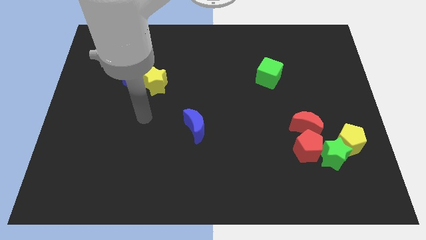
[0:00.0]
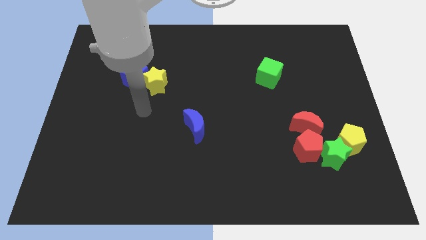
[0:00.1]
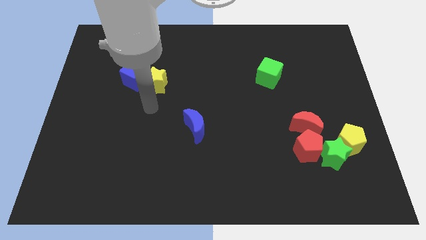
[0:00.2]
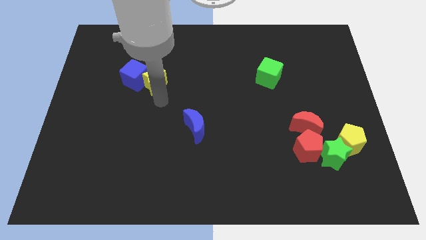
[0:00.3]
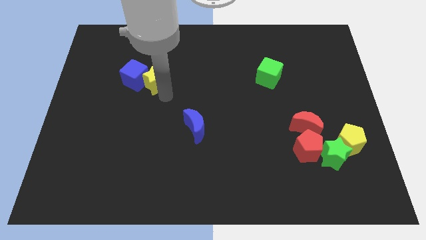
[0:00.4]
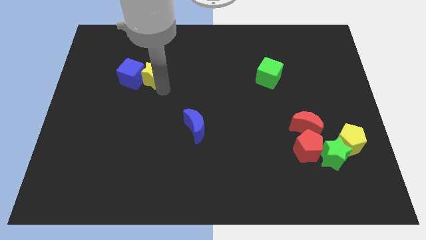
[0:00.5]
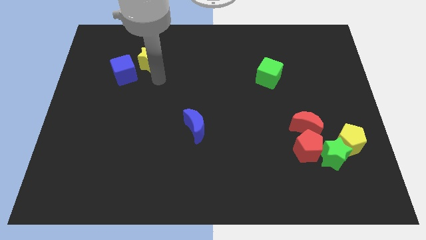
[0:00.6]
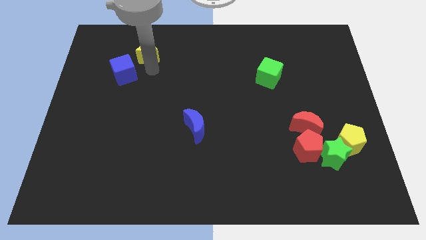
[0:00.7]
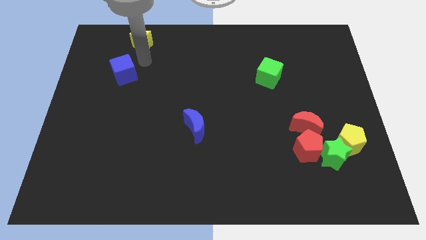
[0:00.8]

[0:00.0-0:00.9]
separate the blue cube from the yellow star

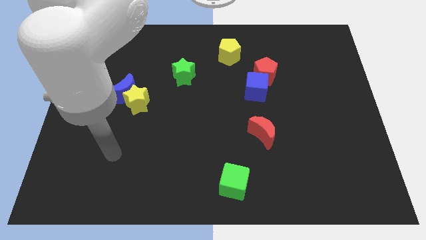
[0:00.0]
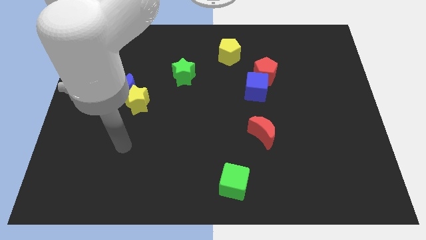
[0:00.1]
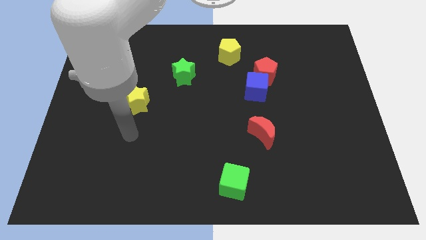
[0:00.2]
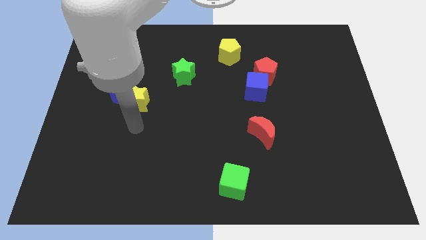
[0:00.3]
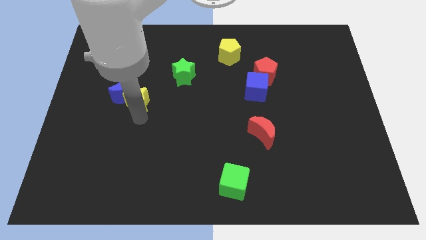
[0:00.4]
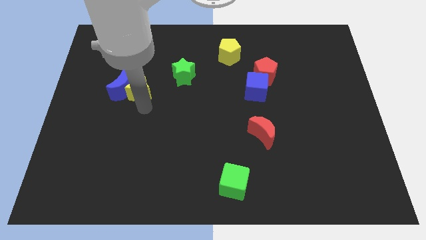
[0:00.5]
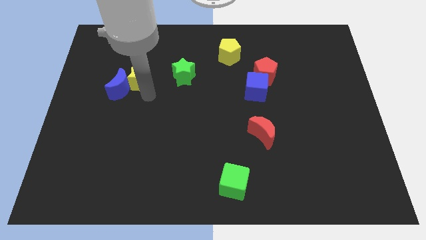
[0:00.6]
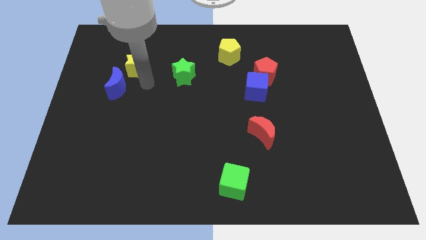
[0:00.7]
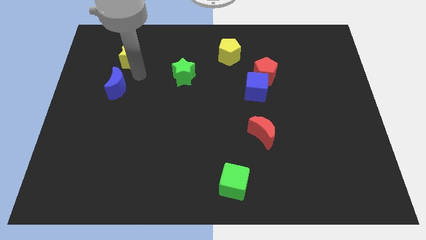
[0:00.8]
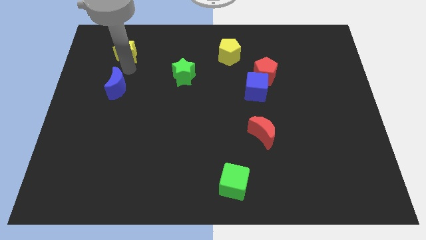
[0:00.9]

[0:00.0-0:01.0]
separate the blue moon from the yellow star

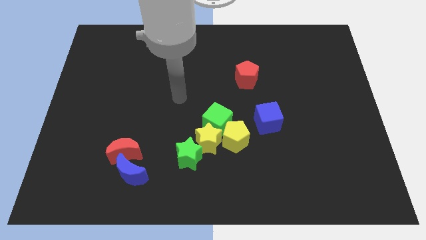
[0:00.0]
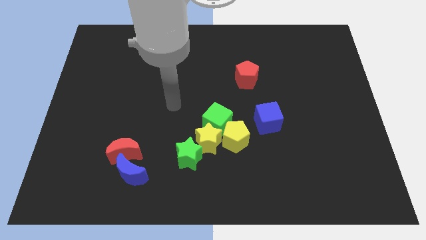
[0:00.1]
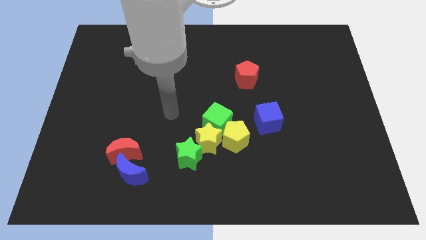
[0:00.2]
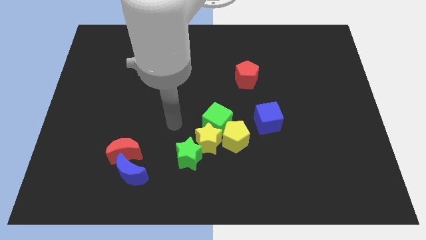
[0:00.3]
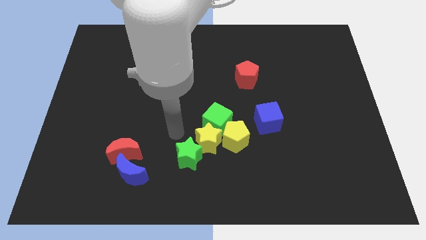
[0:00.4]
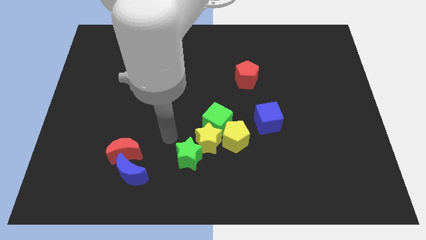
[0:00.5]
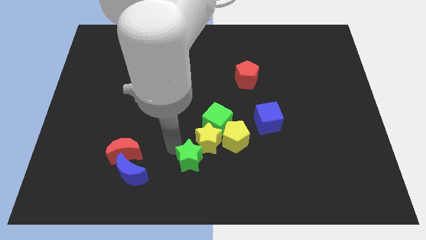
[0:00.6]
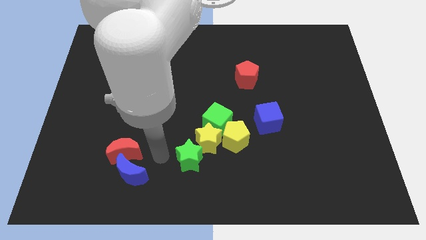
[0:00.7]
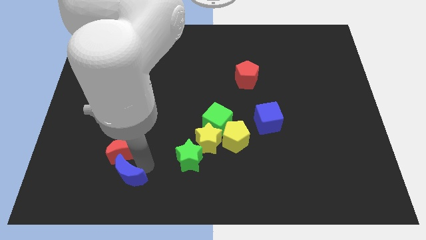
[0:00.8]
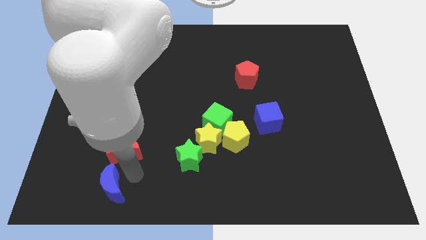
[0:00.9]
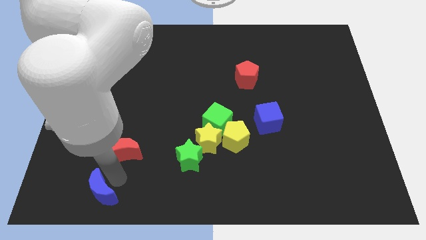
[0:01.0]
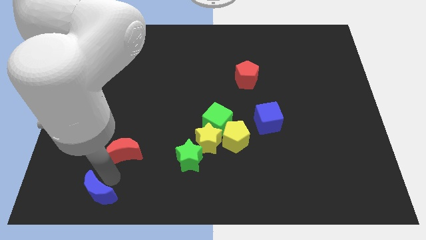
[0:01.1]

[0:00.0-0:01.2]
move the red moon away from the blue moon

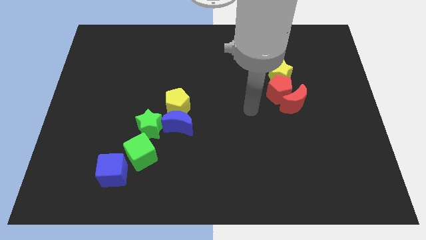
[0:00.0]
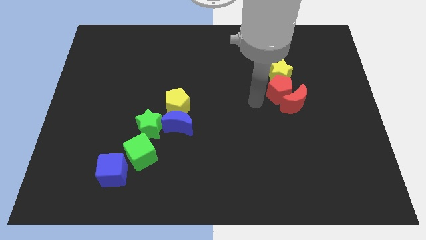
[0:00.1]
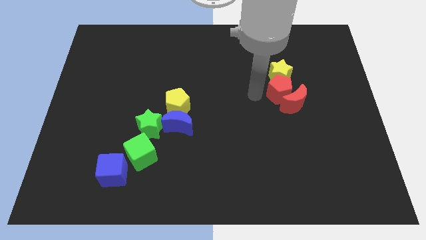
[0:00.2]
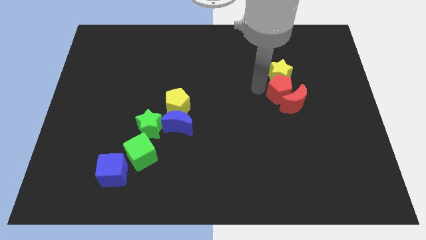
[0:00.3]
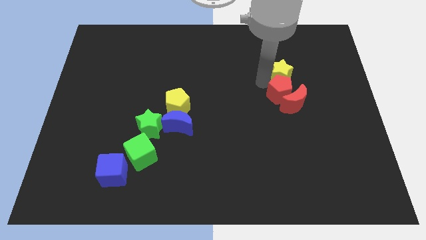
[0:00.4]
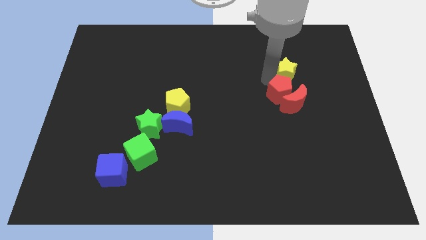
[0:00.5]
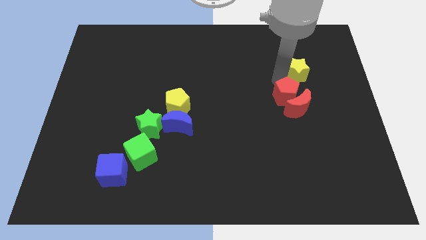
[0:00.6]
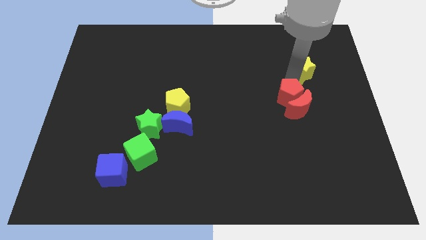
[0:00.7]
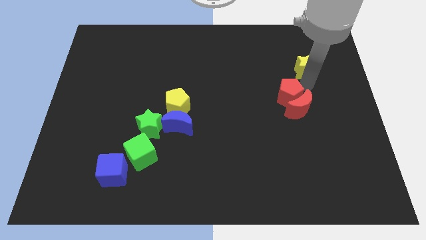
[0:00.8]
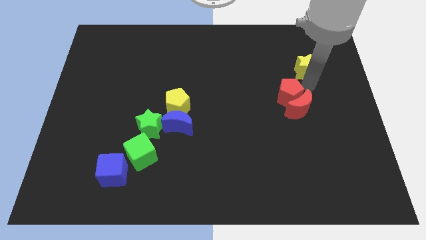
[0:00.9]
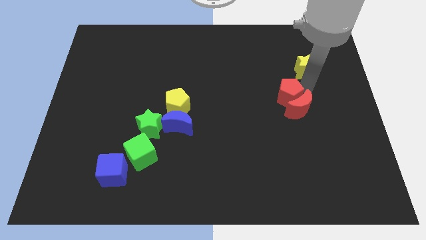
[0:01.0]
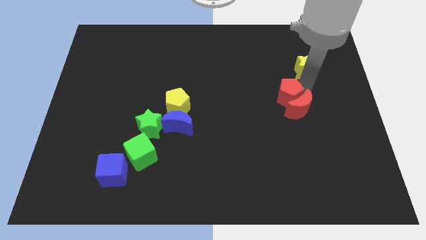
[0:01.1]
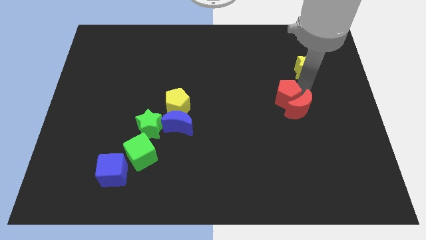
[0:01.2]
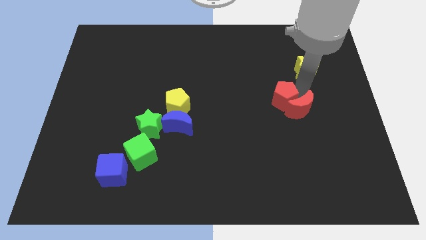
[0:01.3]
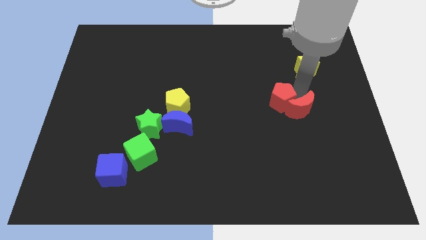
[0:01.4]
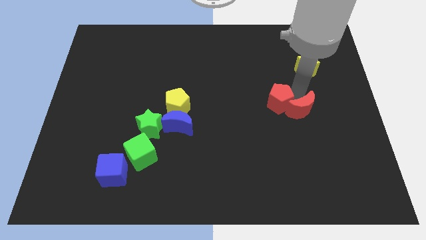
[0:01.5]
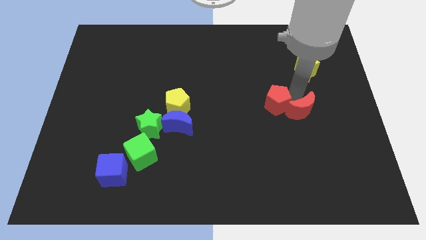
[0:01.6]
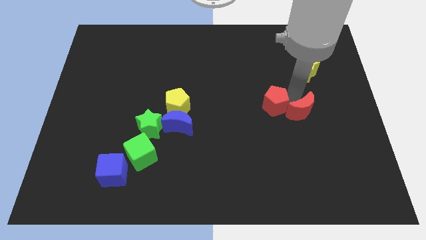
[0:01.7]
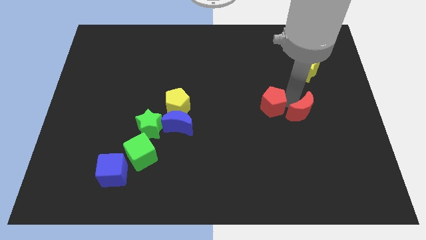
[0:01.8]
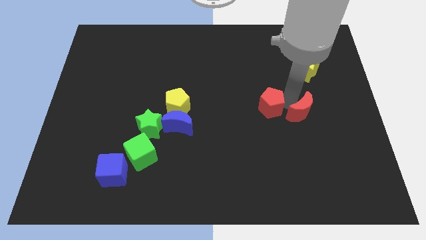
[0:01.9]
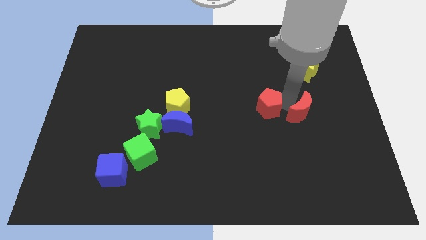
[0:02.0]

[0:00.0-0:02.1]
separate the red pentagon from the red moon and yellow star

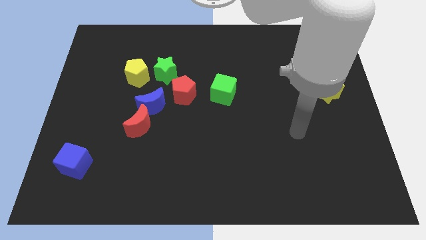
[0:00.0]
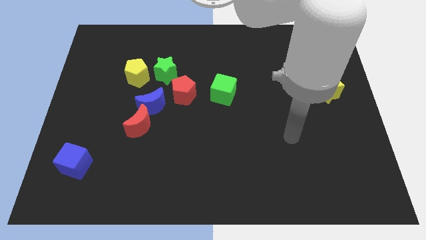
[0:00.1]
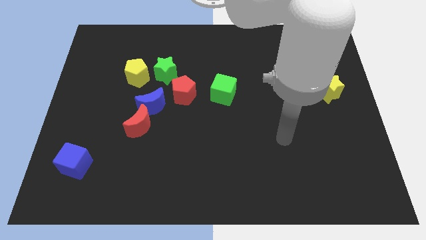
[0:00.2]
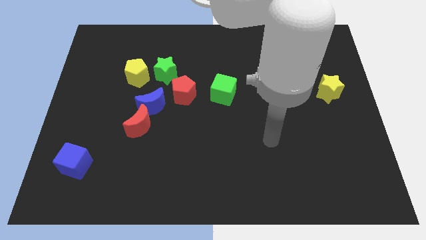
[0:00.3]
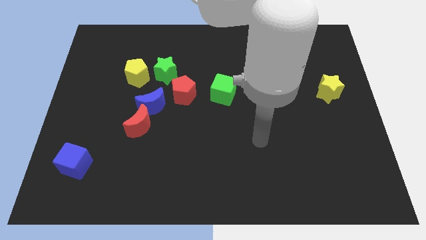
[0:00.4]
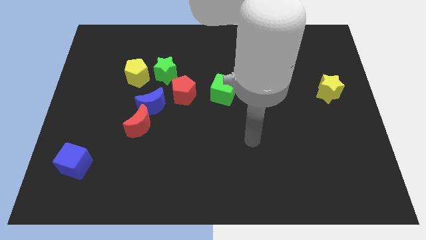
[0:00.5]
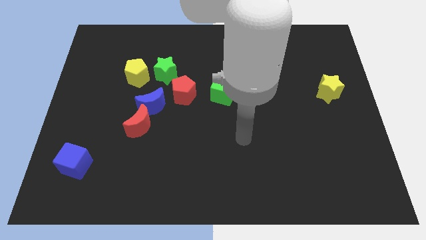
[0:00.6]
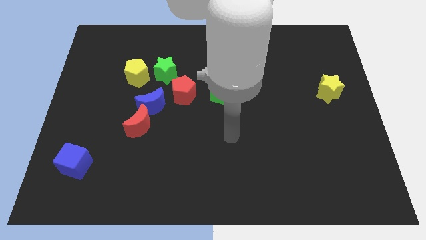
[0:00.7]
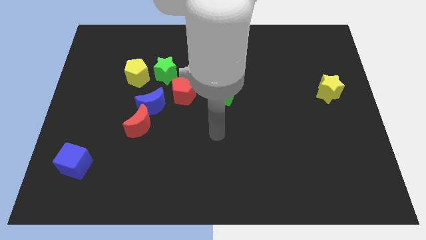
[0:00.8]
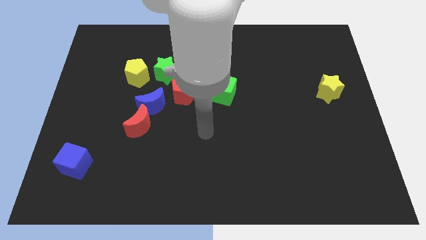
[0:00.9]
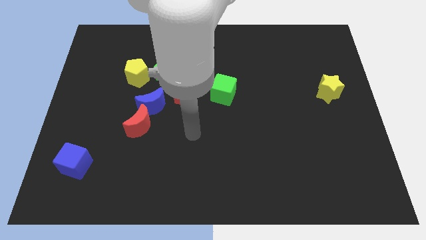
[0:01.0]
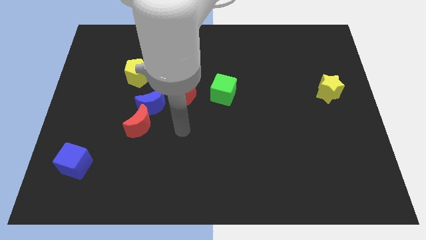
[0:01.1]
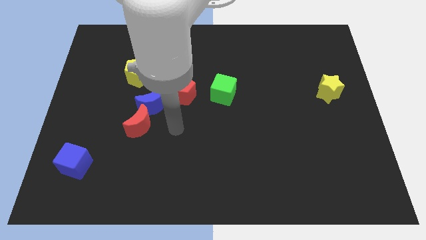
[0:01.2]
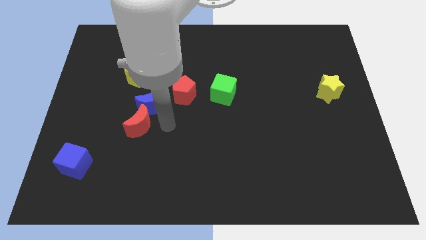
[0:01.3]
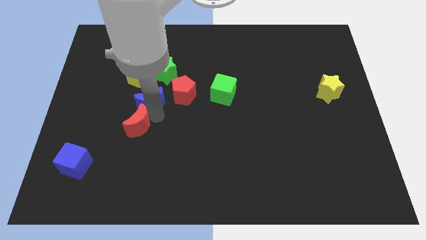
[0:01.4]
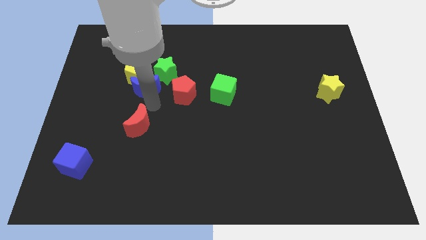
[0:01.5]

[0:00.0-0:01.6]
separate the red moon from the blue moon

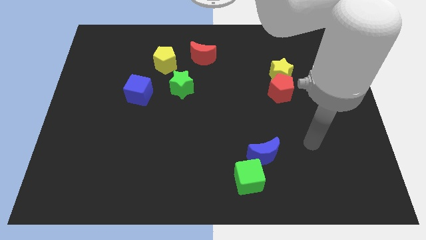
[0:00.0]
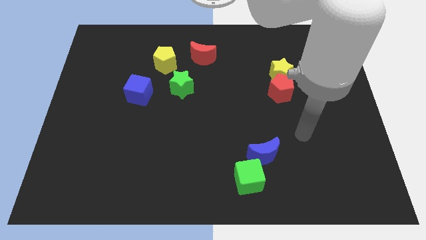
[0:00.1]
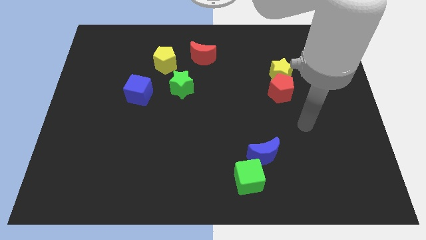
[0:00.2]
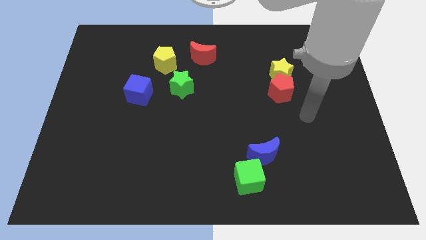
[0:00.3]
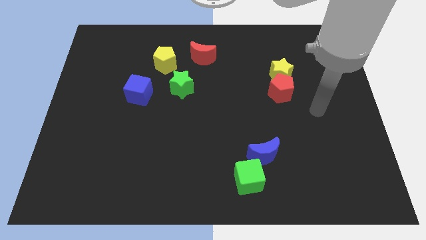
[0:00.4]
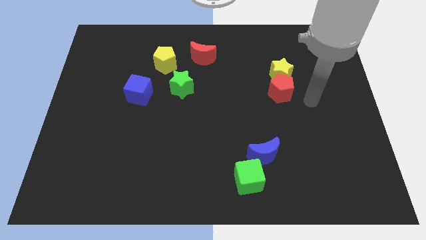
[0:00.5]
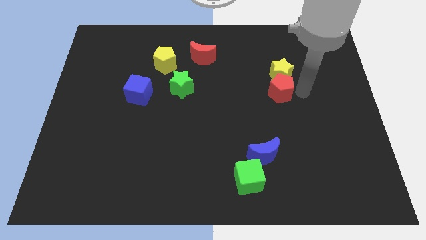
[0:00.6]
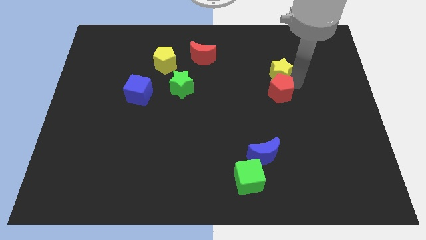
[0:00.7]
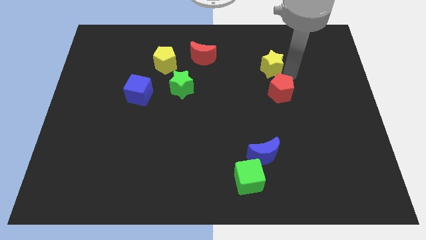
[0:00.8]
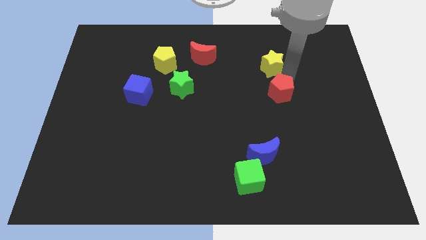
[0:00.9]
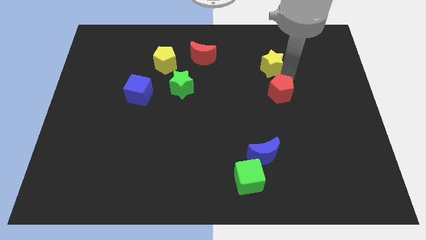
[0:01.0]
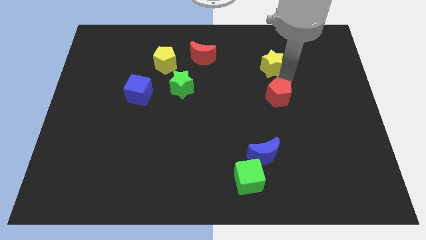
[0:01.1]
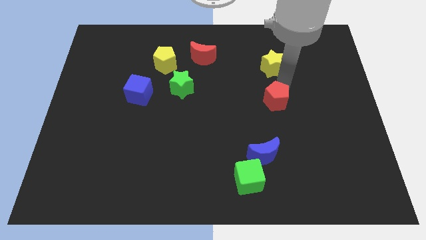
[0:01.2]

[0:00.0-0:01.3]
pull the red pentagon apart from the yellow star

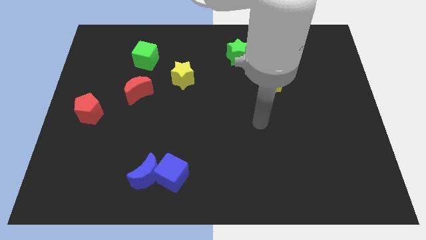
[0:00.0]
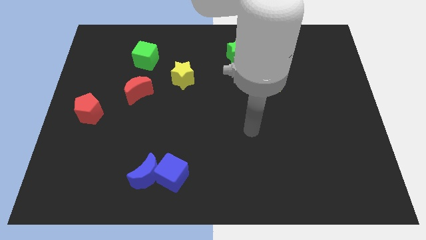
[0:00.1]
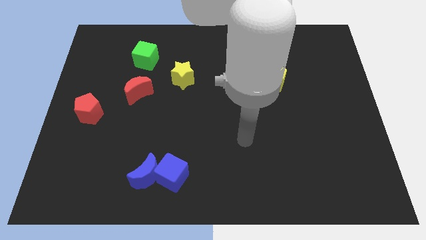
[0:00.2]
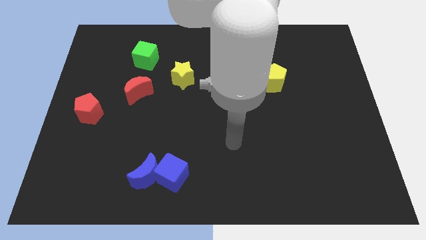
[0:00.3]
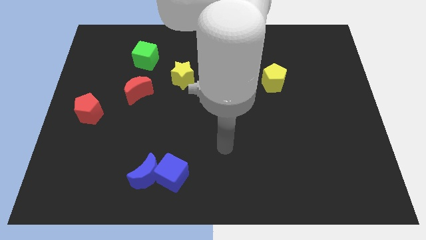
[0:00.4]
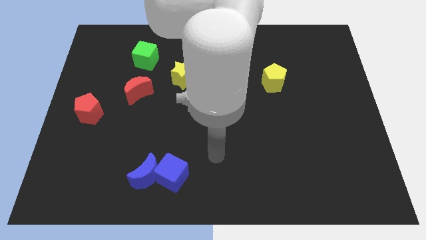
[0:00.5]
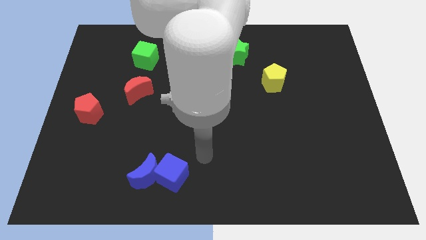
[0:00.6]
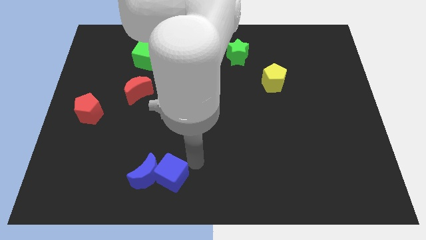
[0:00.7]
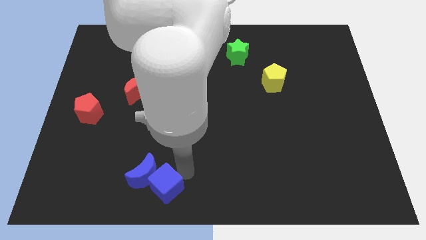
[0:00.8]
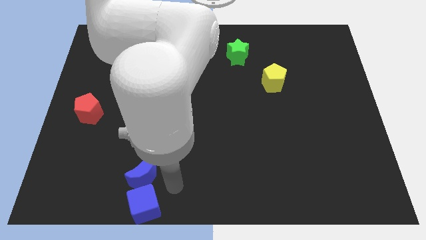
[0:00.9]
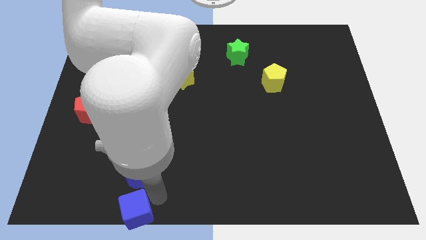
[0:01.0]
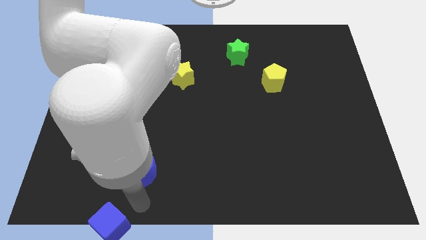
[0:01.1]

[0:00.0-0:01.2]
pull the blue moon apart from the blue cube
